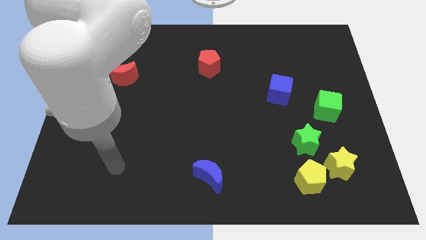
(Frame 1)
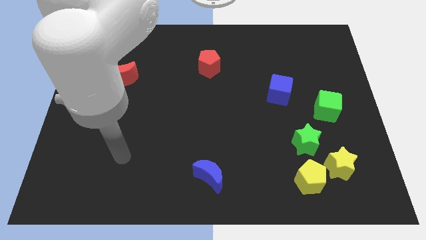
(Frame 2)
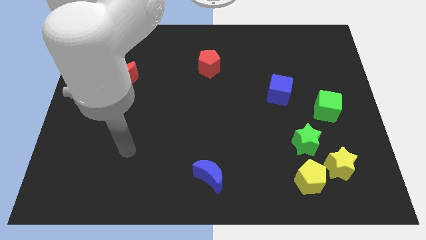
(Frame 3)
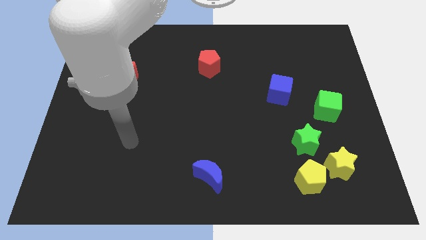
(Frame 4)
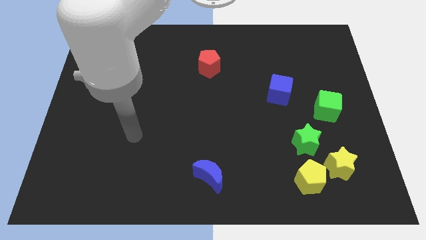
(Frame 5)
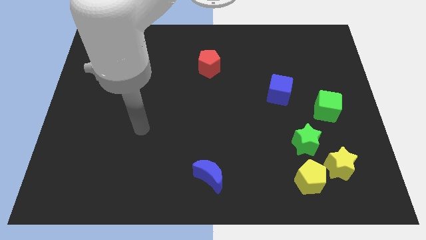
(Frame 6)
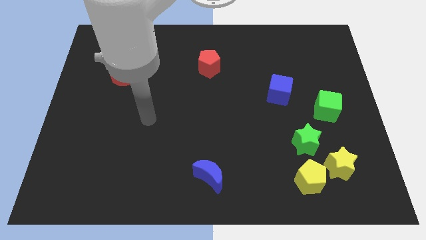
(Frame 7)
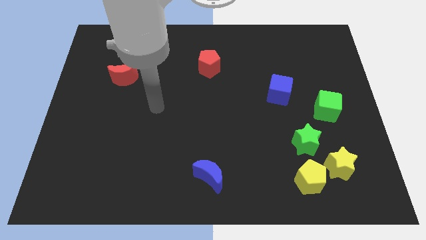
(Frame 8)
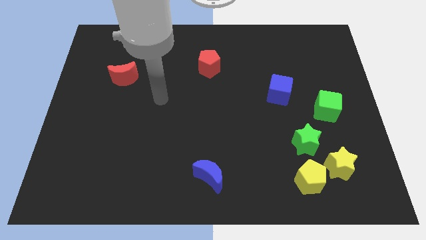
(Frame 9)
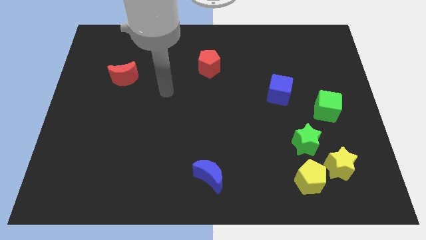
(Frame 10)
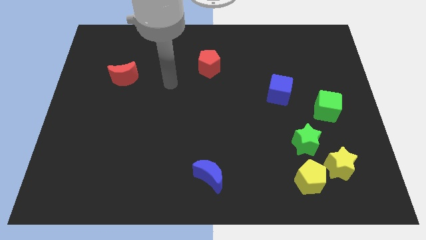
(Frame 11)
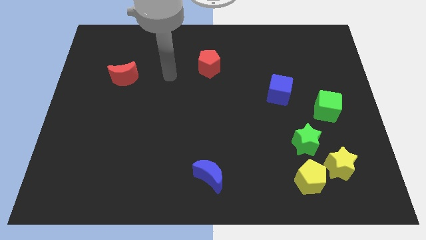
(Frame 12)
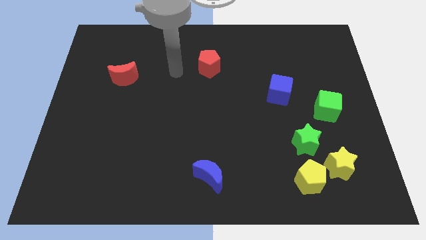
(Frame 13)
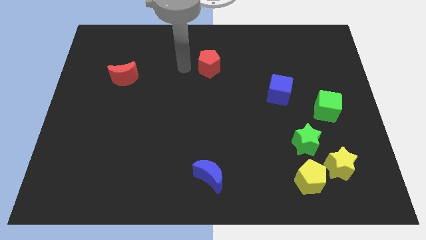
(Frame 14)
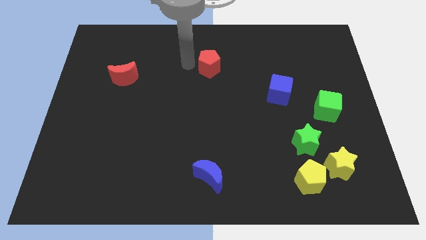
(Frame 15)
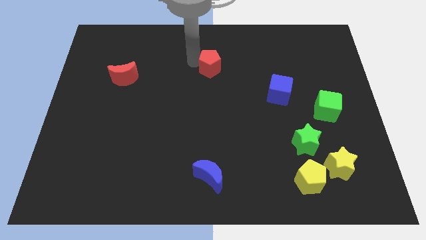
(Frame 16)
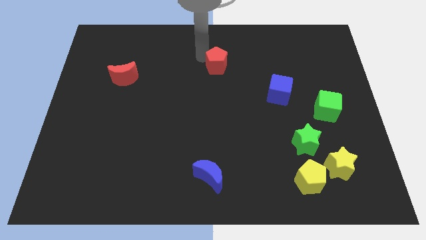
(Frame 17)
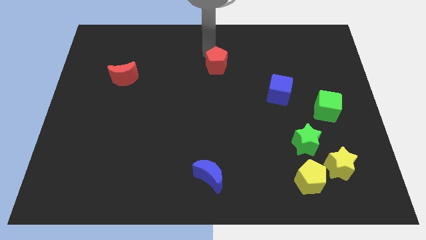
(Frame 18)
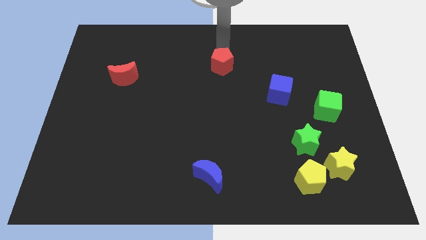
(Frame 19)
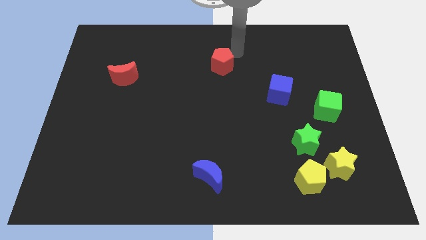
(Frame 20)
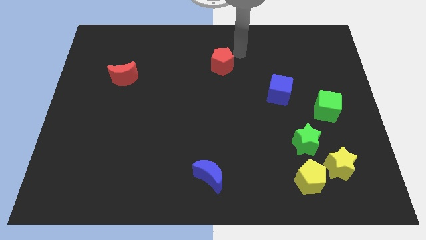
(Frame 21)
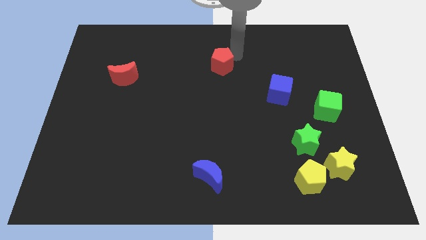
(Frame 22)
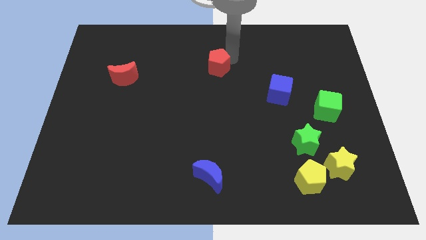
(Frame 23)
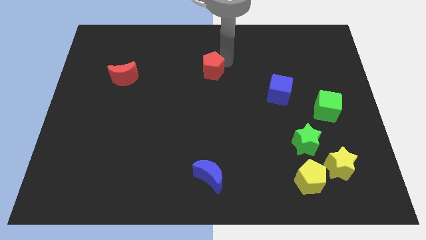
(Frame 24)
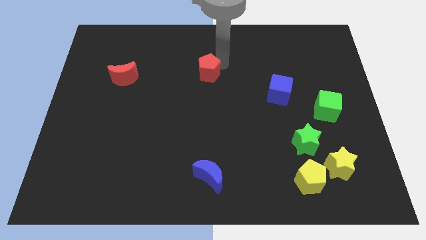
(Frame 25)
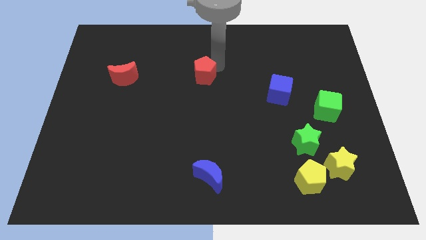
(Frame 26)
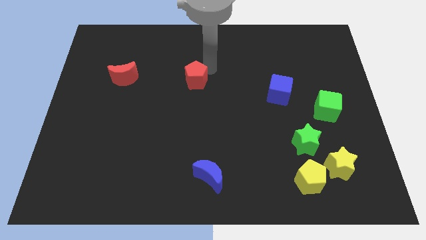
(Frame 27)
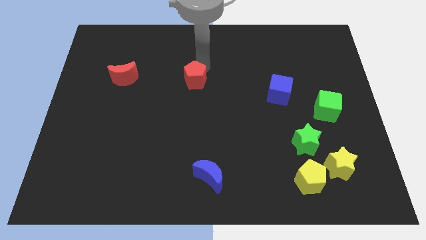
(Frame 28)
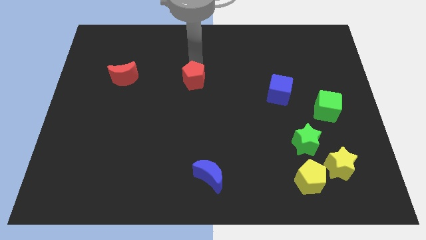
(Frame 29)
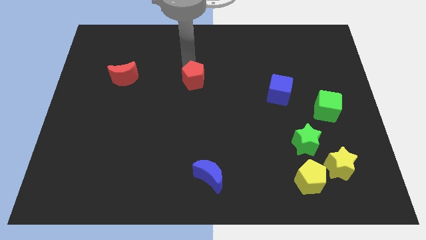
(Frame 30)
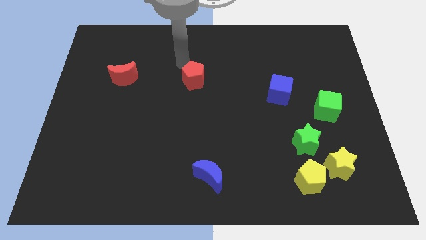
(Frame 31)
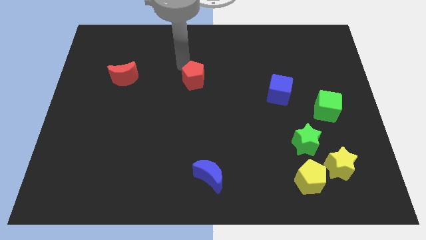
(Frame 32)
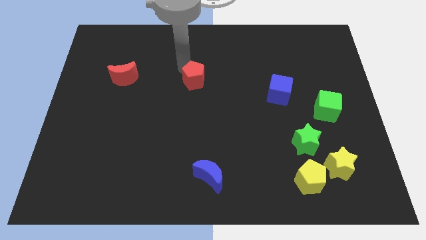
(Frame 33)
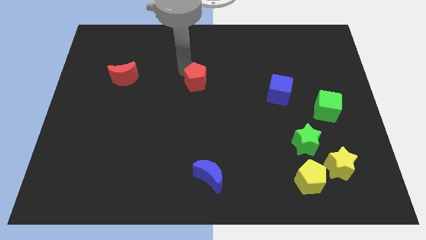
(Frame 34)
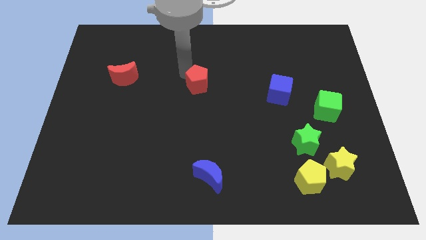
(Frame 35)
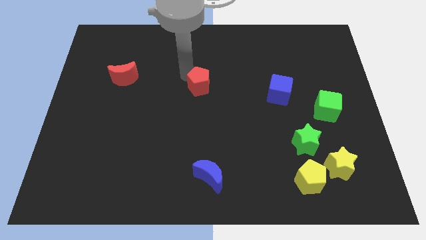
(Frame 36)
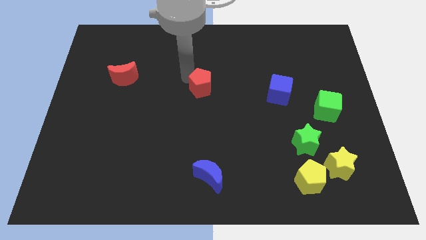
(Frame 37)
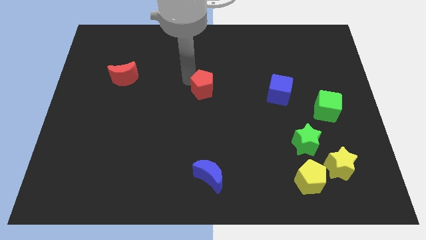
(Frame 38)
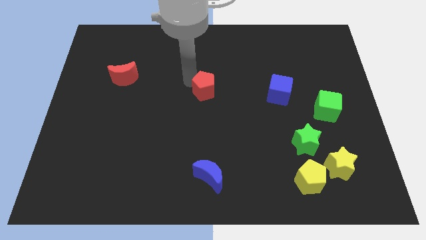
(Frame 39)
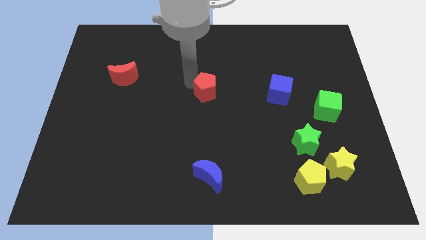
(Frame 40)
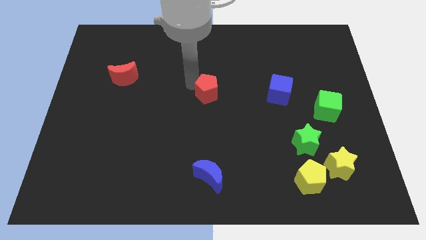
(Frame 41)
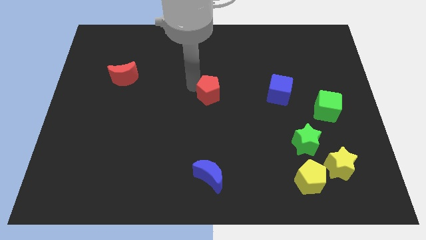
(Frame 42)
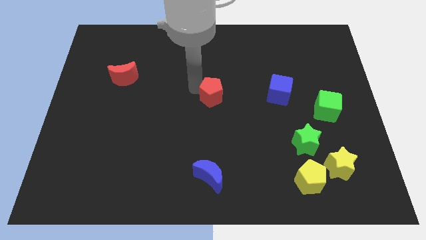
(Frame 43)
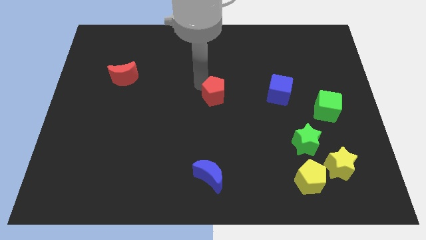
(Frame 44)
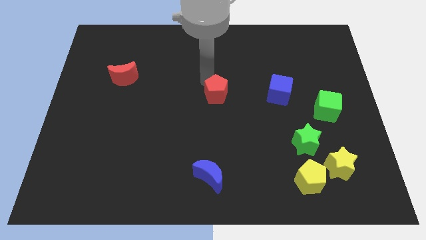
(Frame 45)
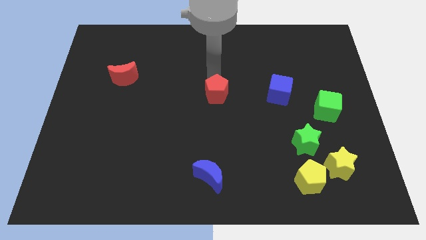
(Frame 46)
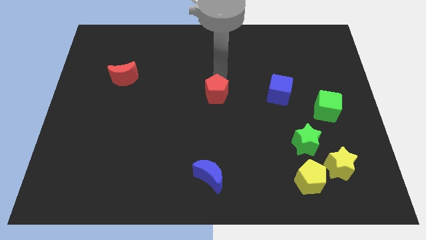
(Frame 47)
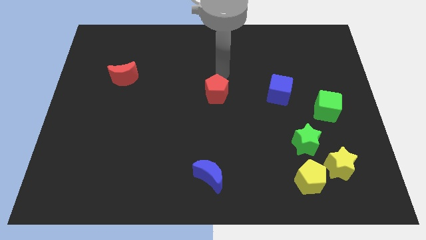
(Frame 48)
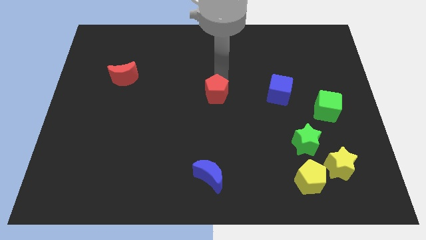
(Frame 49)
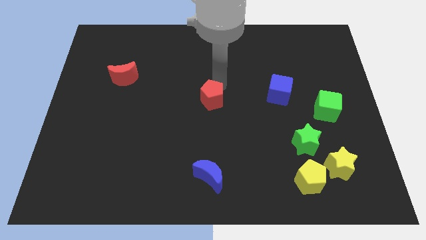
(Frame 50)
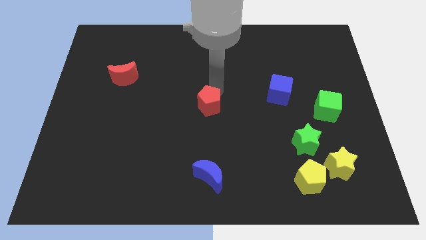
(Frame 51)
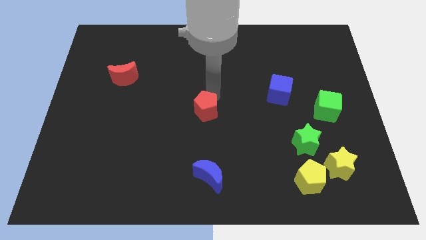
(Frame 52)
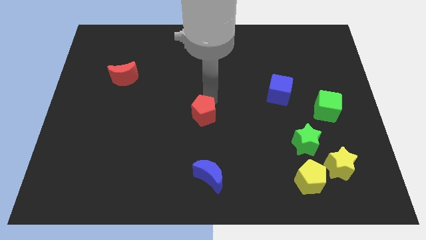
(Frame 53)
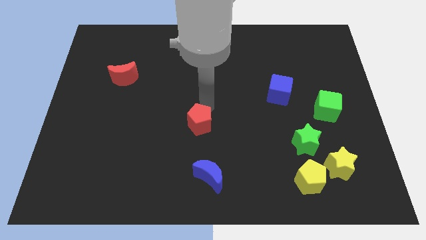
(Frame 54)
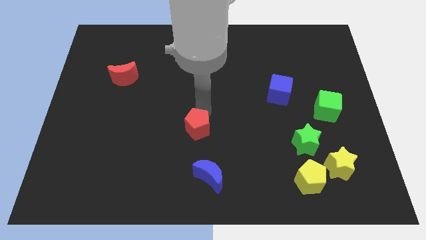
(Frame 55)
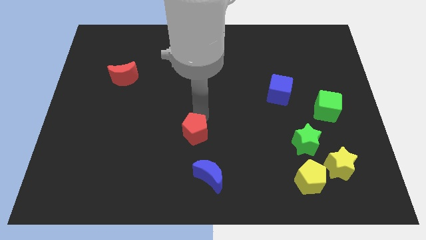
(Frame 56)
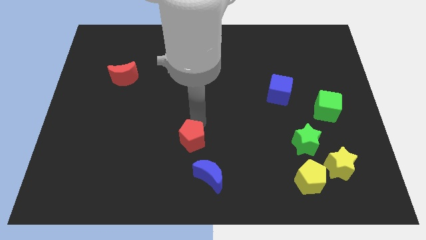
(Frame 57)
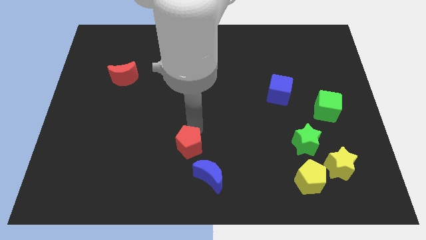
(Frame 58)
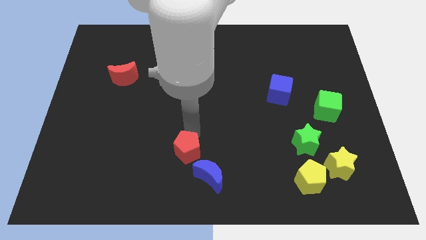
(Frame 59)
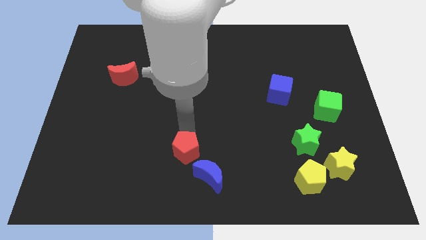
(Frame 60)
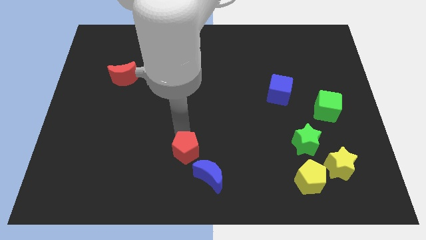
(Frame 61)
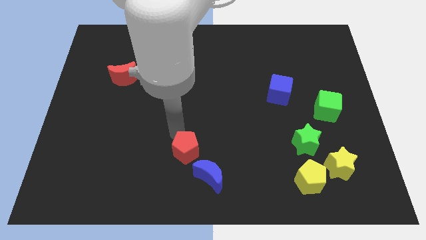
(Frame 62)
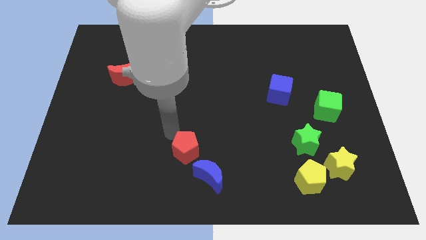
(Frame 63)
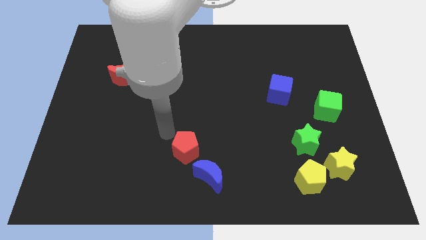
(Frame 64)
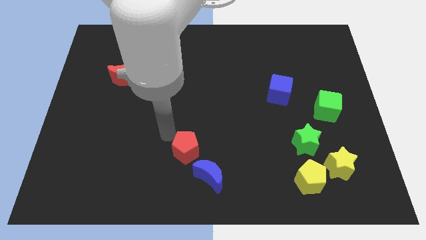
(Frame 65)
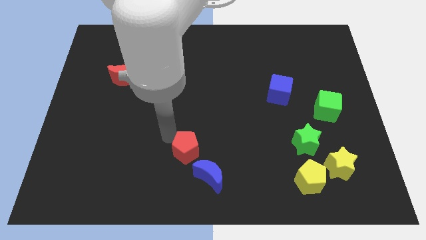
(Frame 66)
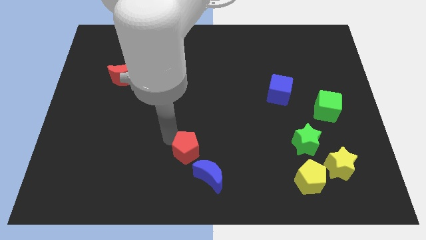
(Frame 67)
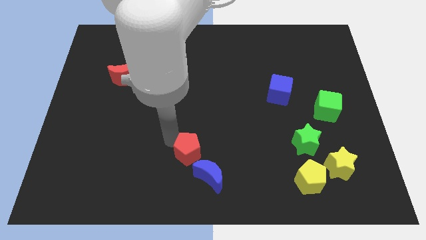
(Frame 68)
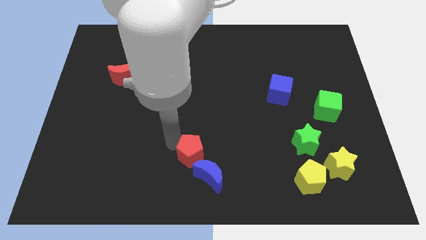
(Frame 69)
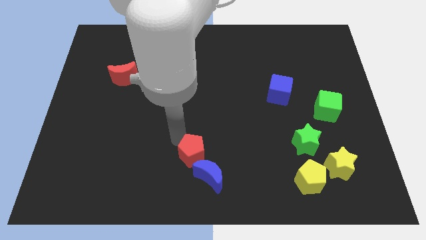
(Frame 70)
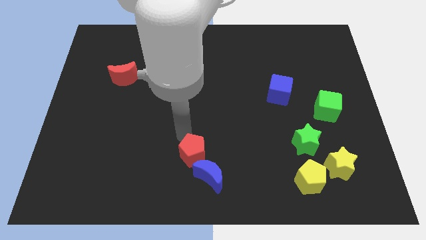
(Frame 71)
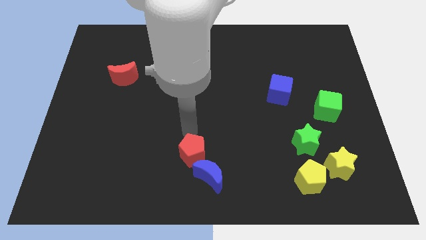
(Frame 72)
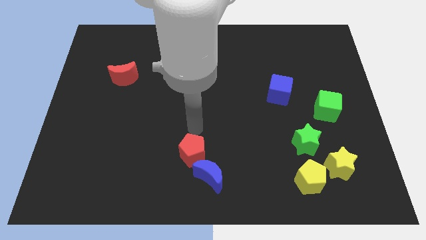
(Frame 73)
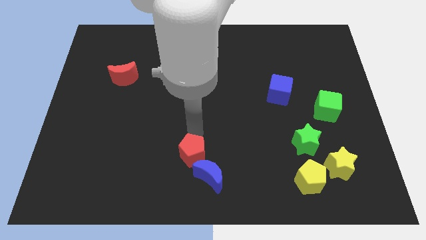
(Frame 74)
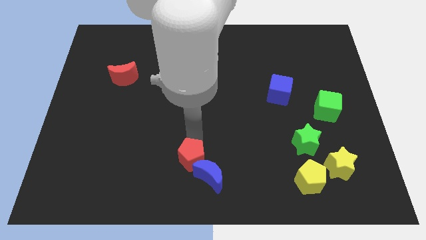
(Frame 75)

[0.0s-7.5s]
move the red pentagon to the bottom side
